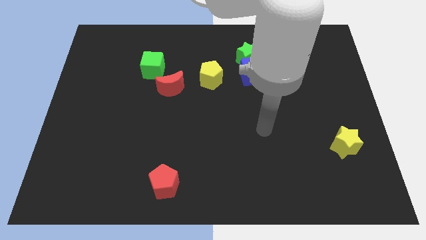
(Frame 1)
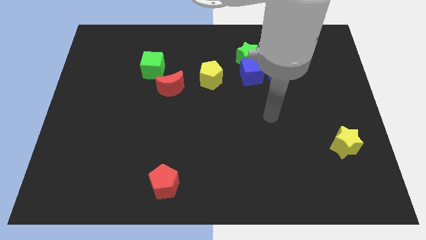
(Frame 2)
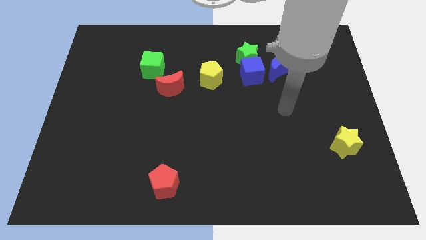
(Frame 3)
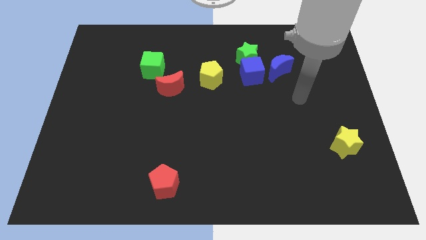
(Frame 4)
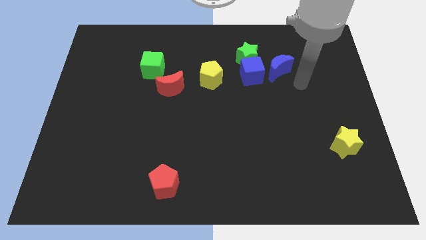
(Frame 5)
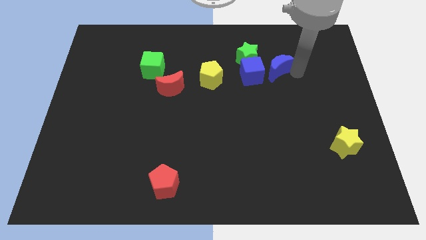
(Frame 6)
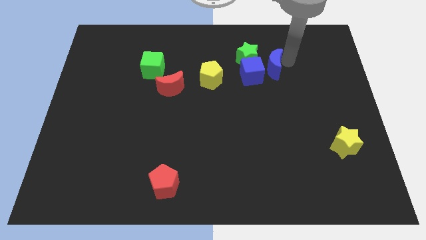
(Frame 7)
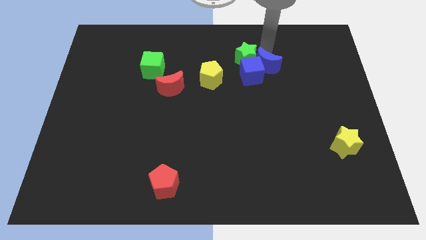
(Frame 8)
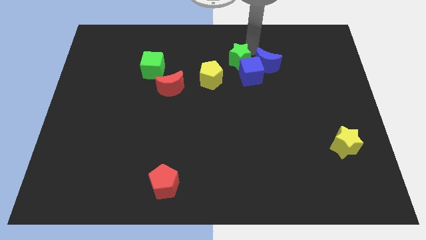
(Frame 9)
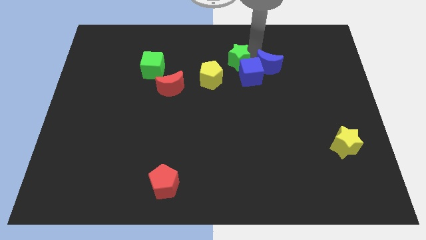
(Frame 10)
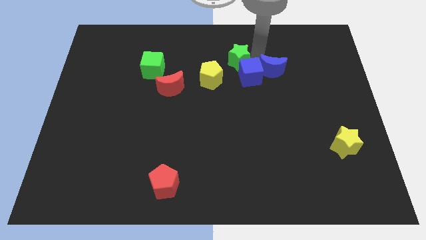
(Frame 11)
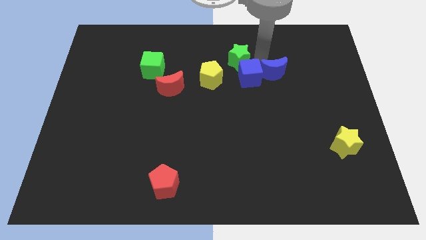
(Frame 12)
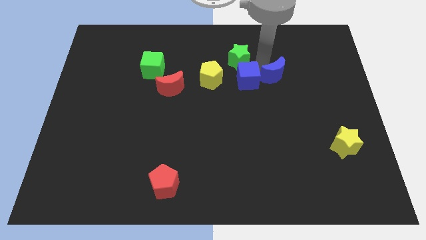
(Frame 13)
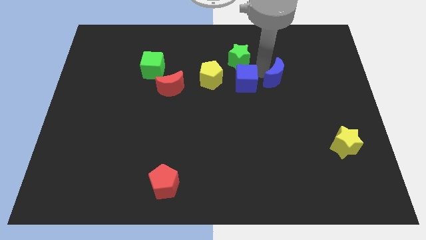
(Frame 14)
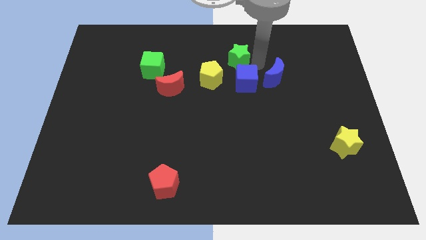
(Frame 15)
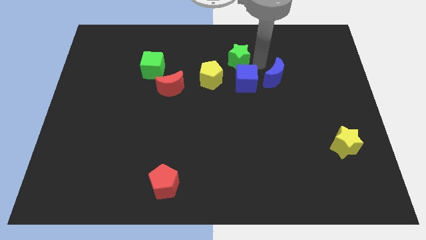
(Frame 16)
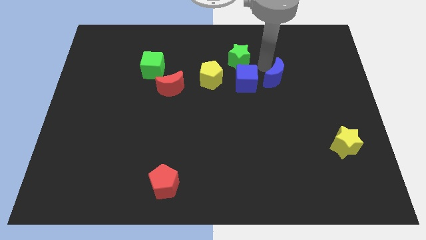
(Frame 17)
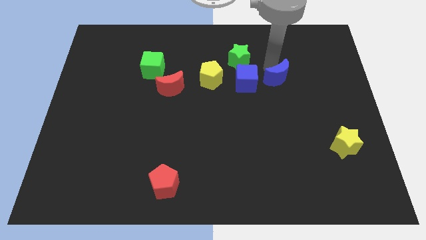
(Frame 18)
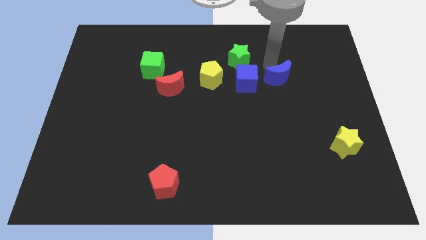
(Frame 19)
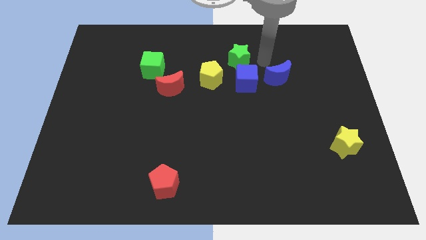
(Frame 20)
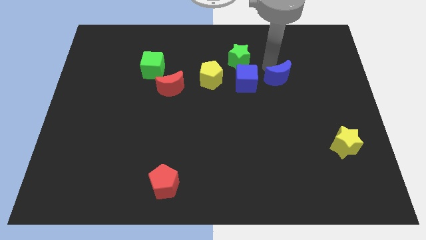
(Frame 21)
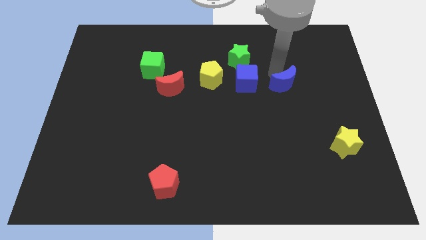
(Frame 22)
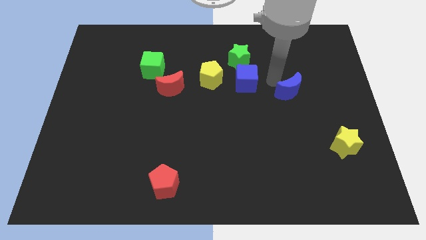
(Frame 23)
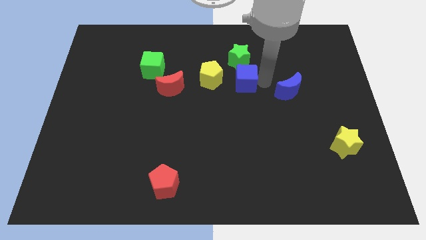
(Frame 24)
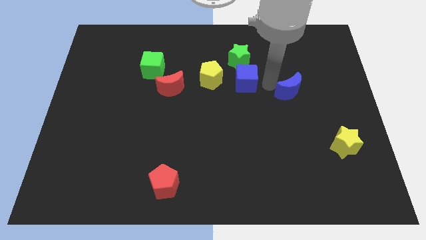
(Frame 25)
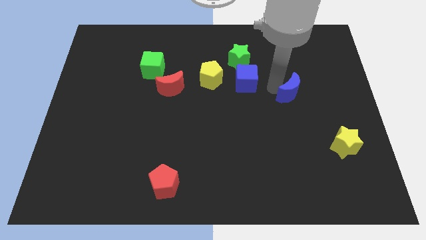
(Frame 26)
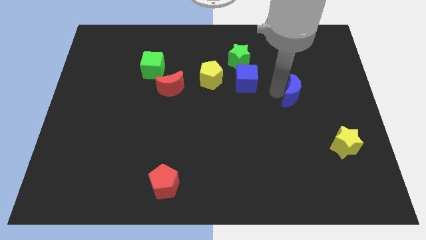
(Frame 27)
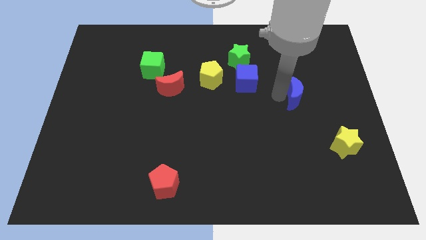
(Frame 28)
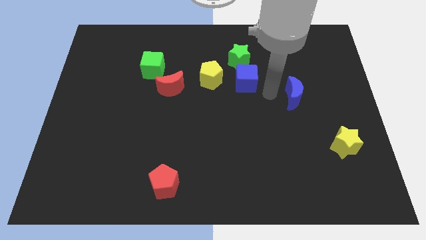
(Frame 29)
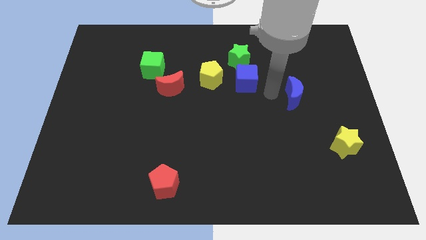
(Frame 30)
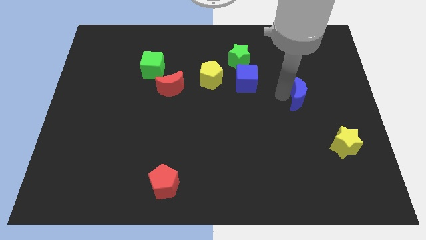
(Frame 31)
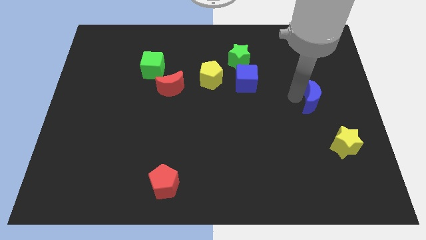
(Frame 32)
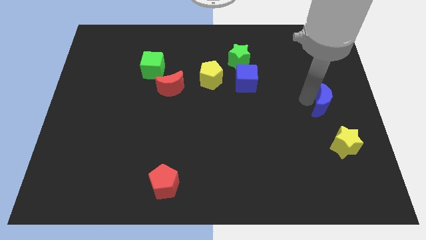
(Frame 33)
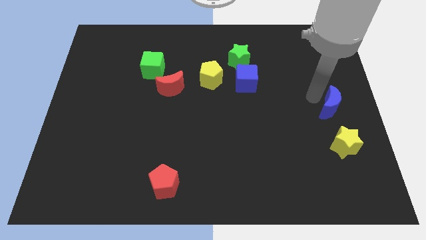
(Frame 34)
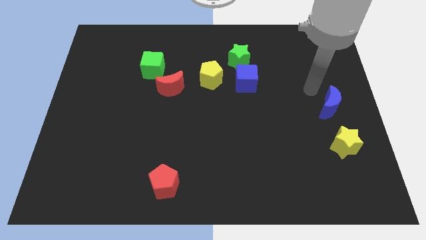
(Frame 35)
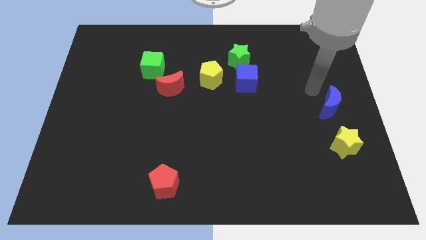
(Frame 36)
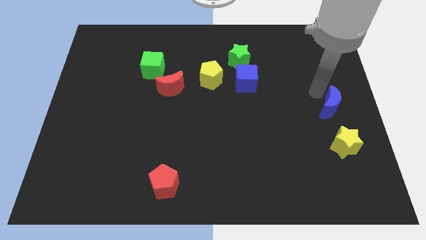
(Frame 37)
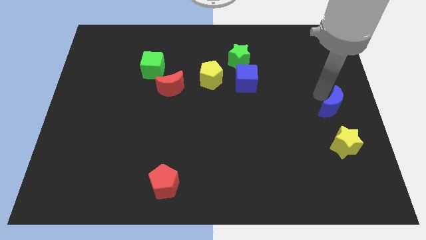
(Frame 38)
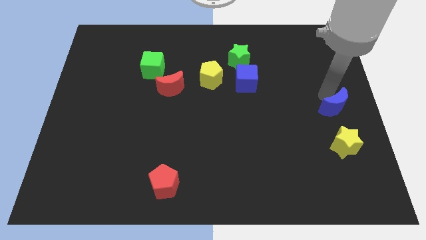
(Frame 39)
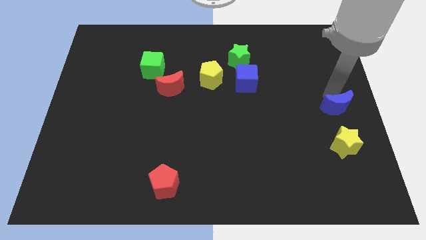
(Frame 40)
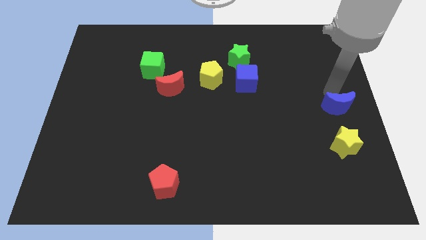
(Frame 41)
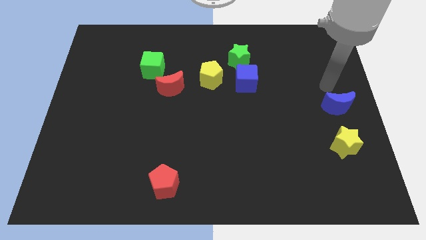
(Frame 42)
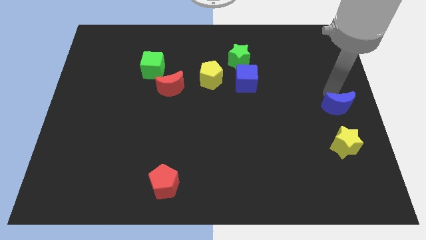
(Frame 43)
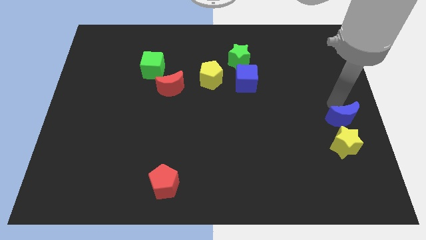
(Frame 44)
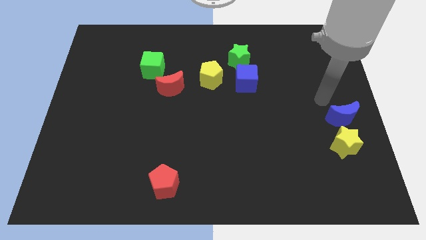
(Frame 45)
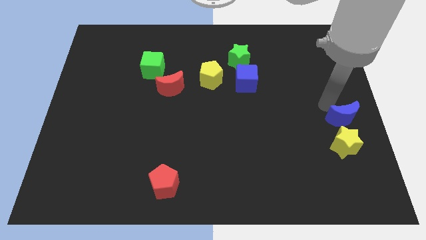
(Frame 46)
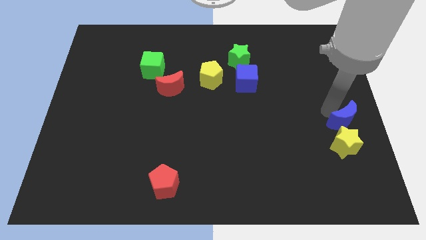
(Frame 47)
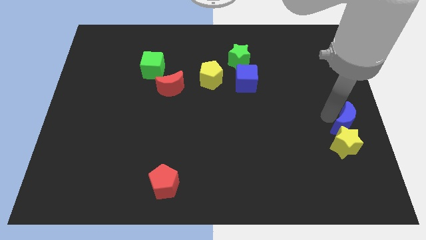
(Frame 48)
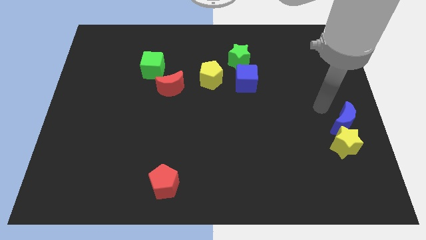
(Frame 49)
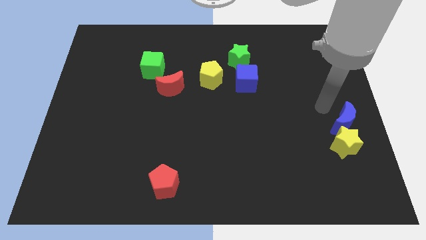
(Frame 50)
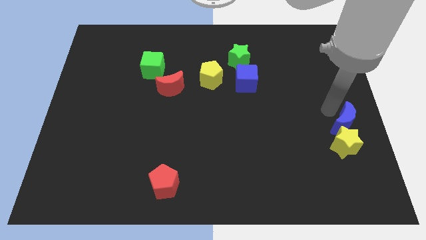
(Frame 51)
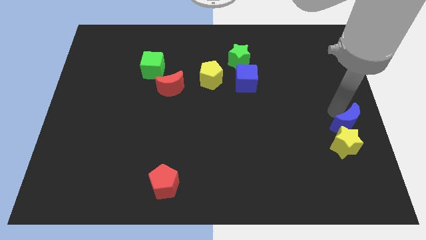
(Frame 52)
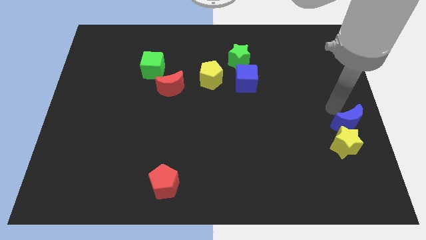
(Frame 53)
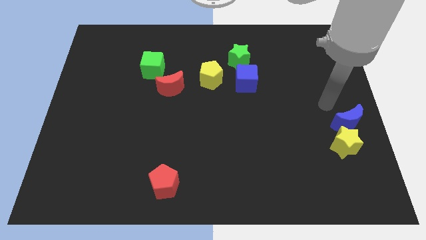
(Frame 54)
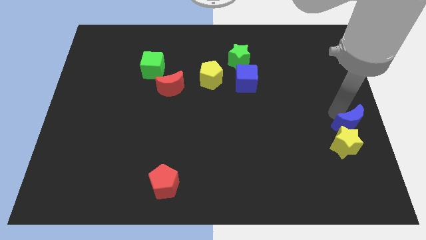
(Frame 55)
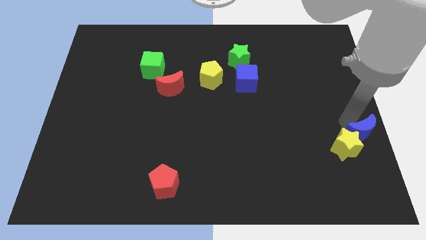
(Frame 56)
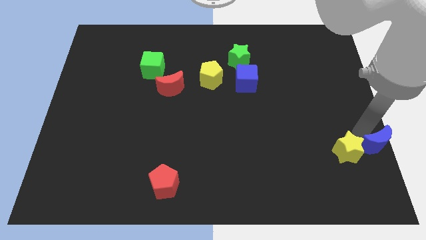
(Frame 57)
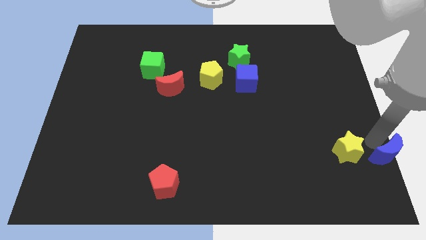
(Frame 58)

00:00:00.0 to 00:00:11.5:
put the blue moon to the bottom right corner
